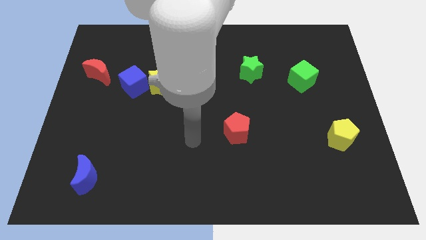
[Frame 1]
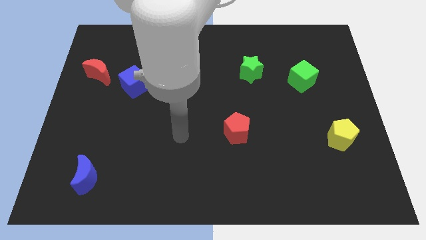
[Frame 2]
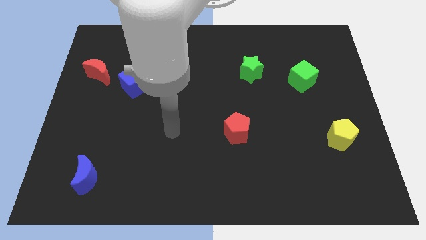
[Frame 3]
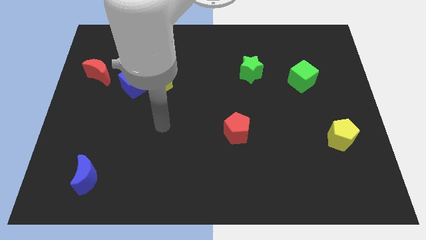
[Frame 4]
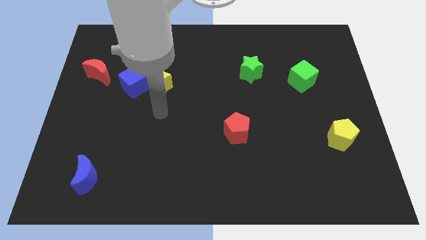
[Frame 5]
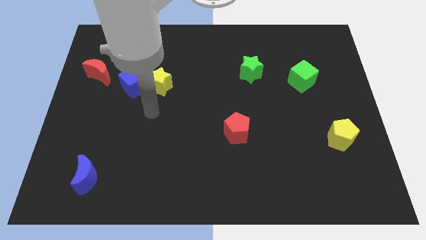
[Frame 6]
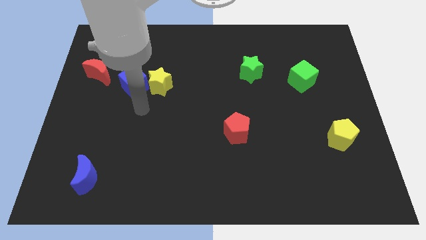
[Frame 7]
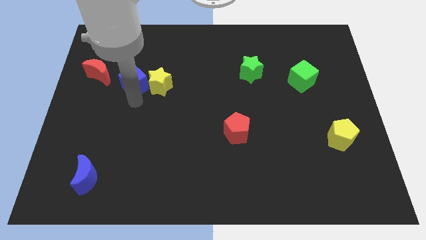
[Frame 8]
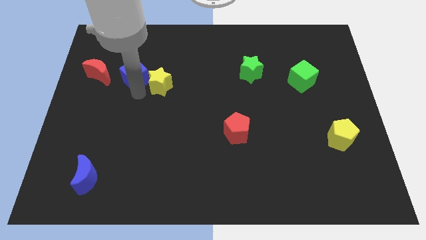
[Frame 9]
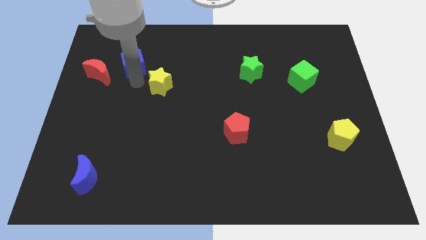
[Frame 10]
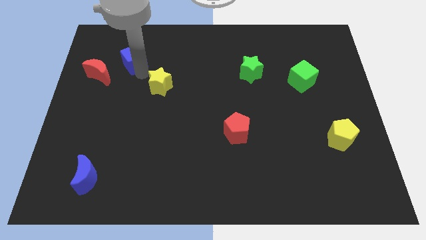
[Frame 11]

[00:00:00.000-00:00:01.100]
pull the yellow star apart from the blue cube

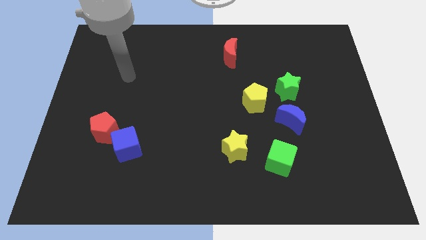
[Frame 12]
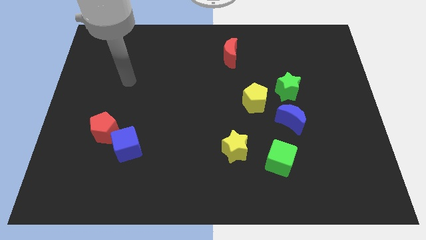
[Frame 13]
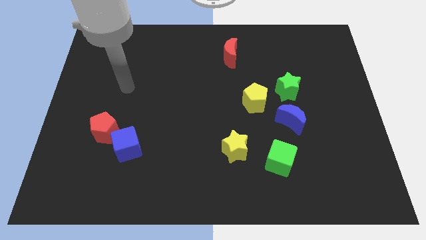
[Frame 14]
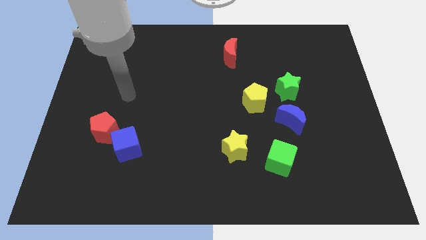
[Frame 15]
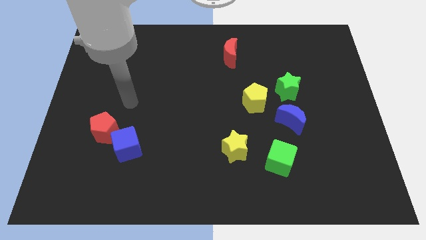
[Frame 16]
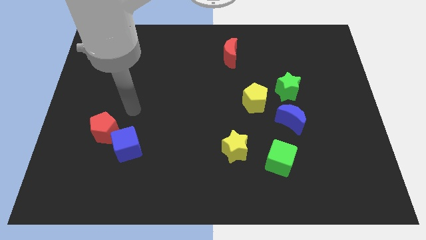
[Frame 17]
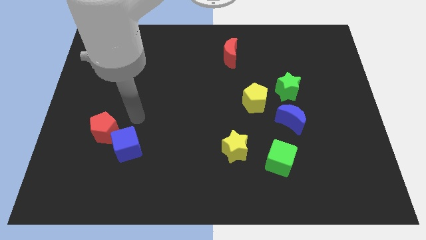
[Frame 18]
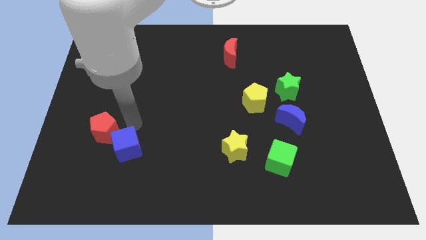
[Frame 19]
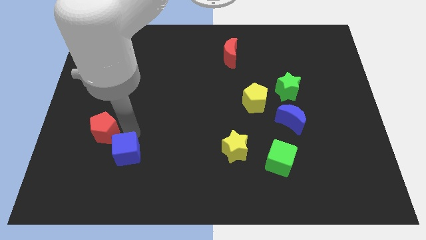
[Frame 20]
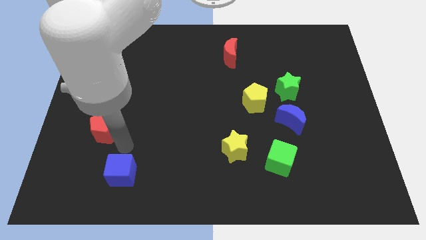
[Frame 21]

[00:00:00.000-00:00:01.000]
separate the red pentagon from the blue cube

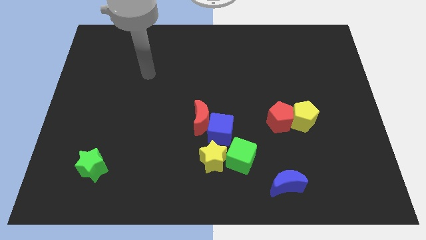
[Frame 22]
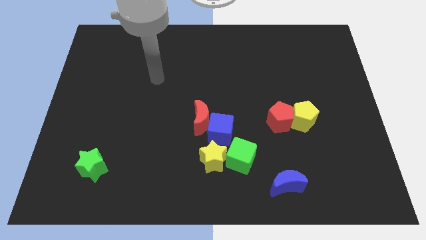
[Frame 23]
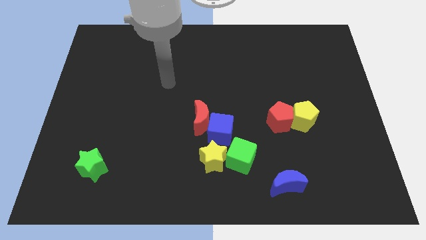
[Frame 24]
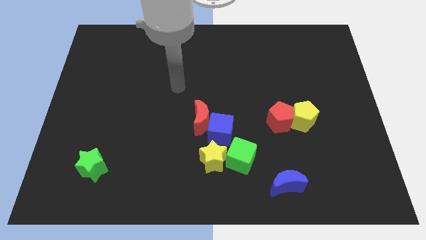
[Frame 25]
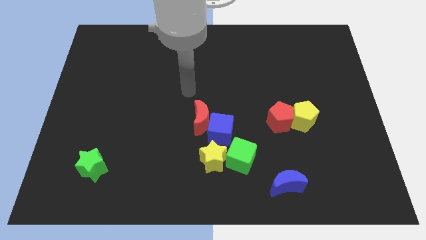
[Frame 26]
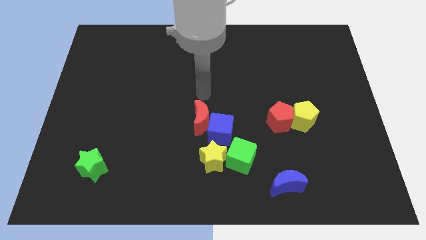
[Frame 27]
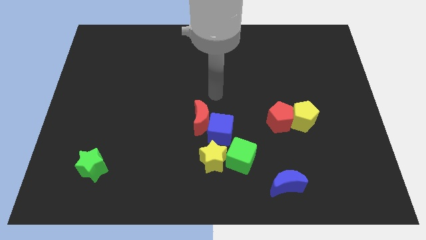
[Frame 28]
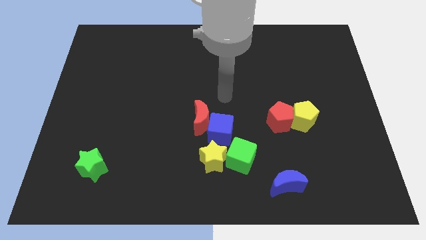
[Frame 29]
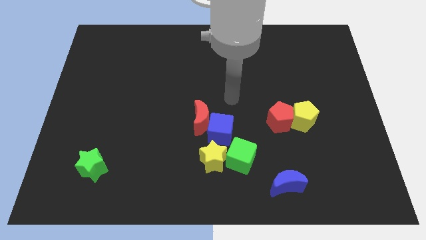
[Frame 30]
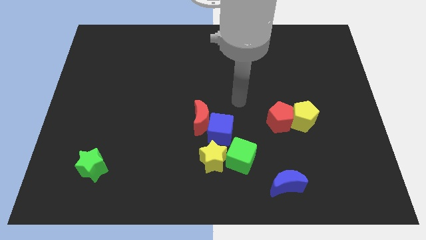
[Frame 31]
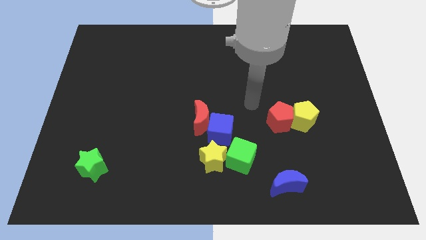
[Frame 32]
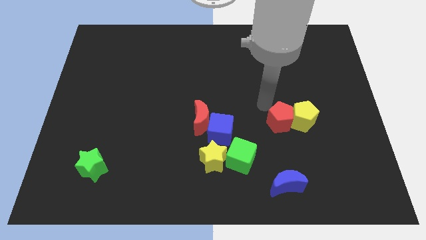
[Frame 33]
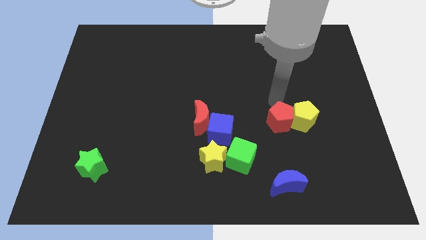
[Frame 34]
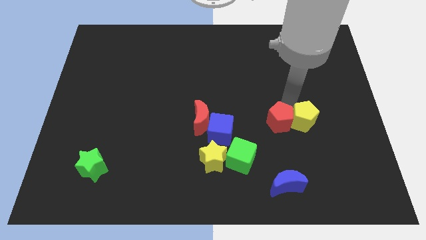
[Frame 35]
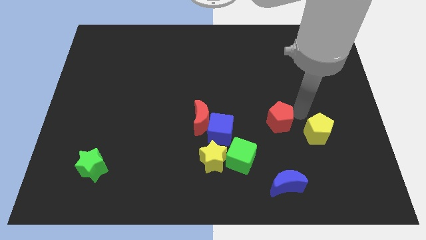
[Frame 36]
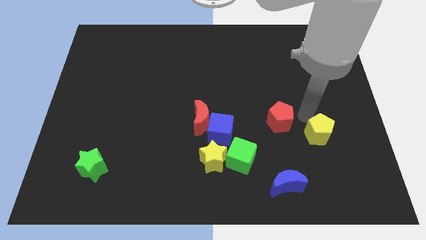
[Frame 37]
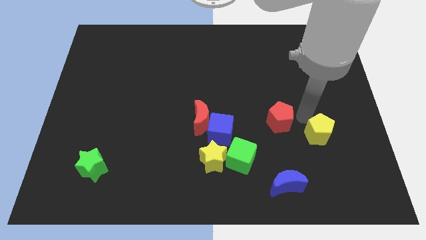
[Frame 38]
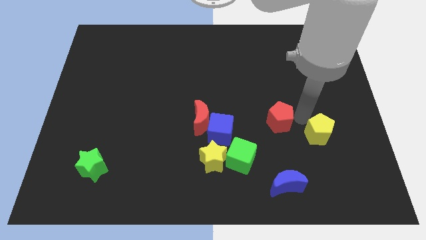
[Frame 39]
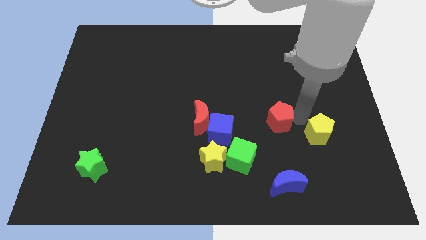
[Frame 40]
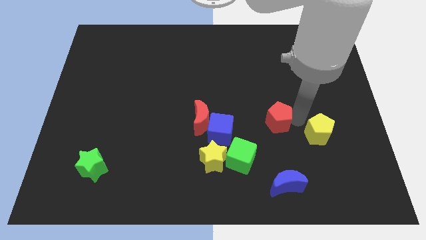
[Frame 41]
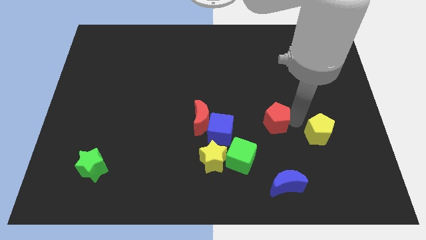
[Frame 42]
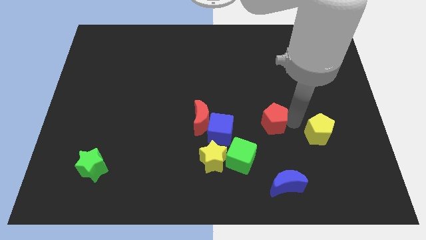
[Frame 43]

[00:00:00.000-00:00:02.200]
move the red pentagon away from the yellow pentagon

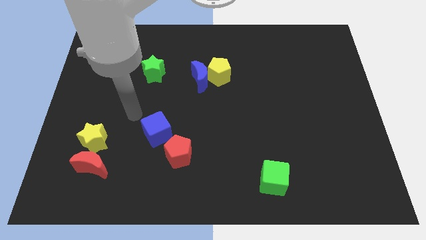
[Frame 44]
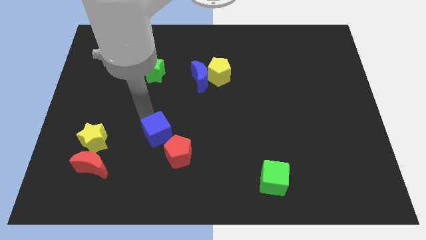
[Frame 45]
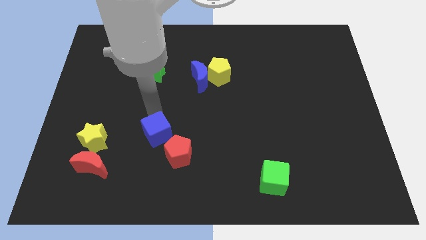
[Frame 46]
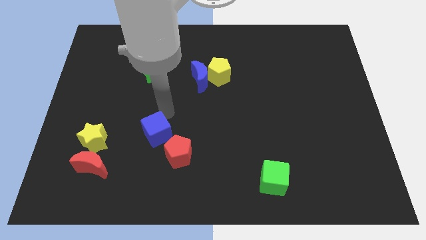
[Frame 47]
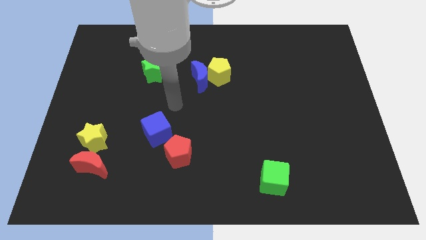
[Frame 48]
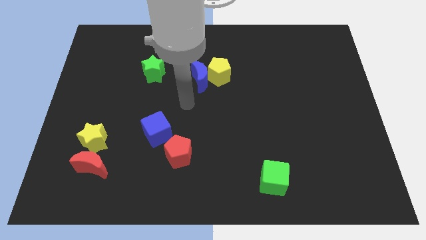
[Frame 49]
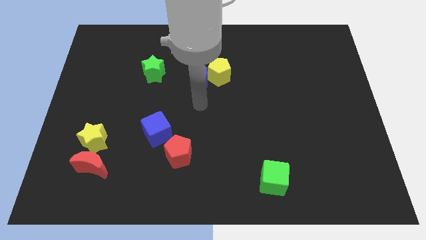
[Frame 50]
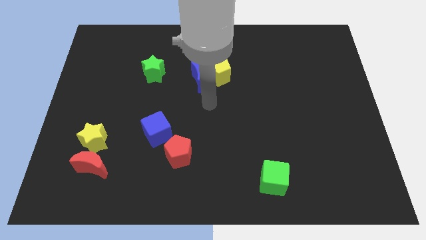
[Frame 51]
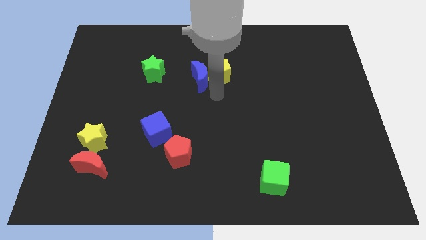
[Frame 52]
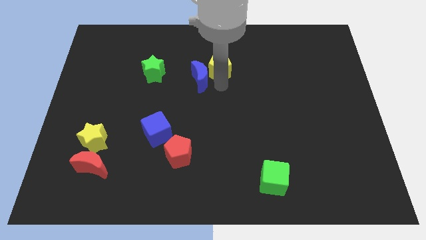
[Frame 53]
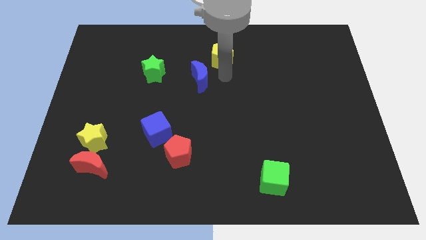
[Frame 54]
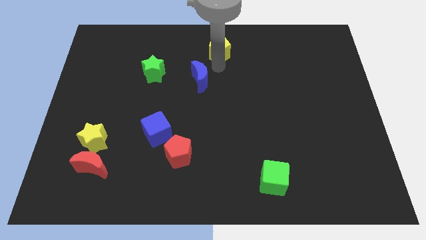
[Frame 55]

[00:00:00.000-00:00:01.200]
pull the blue moon apart from the yellow pentagon

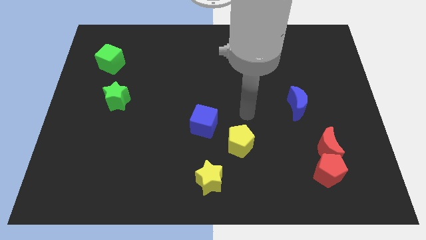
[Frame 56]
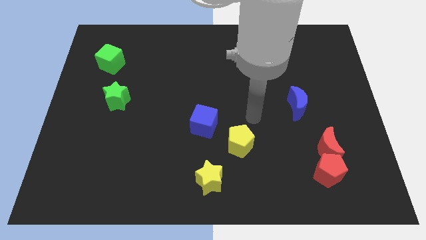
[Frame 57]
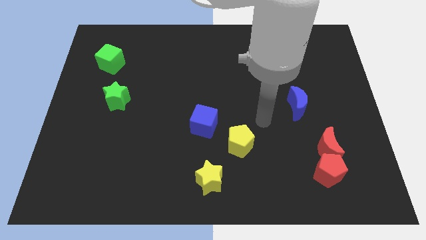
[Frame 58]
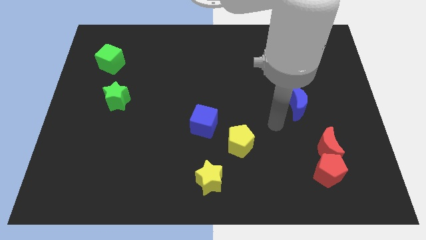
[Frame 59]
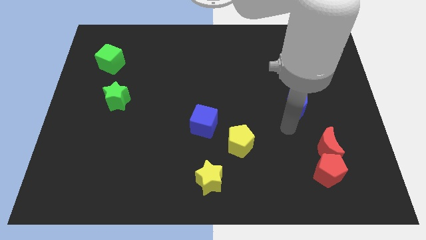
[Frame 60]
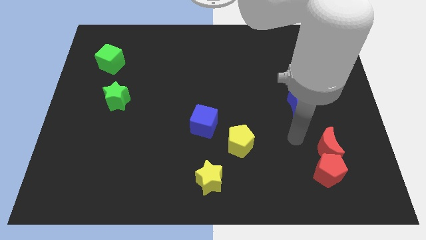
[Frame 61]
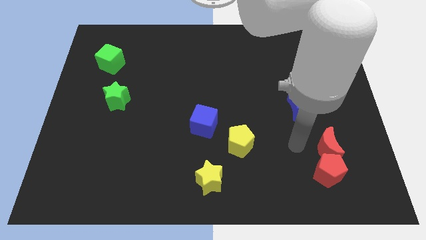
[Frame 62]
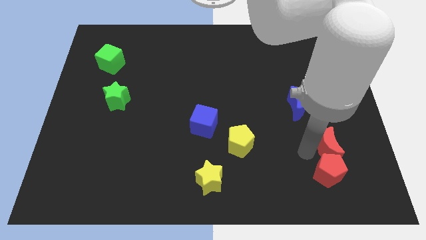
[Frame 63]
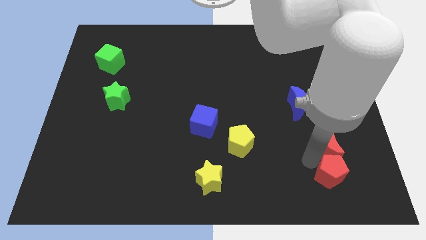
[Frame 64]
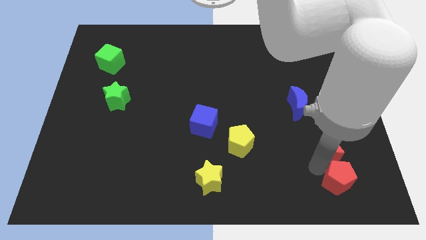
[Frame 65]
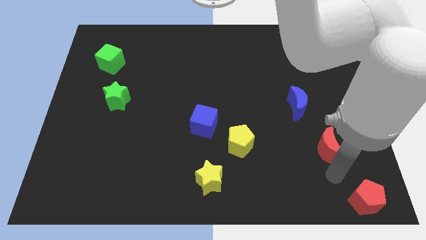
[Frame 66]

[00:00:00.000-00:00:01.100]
move the red moon away from the red pentagon

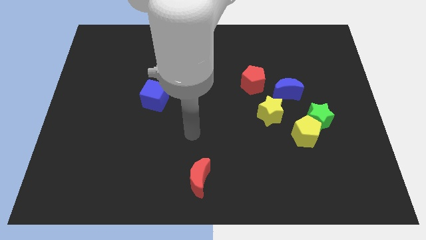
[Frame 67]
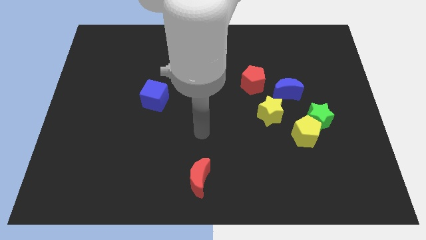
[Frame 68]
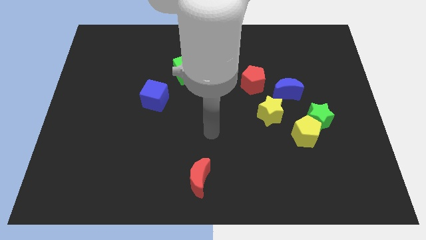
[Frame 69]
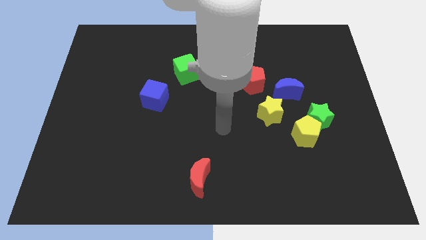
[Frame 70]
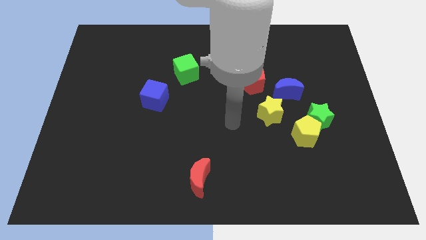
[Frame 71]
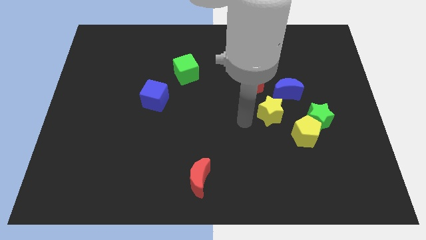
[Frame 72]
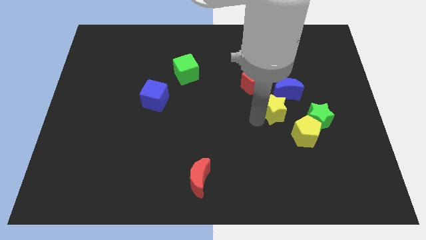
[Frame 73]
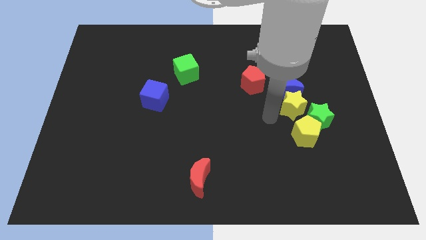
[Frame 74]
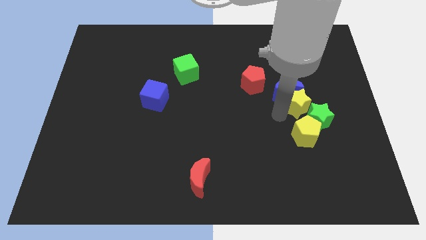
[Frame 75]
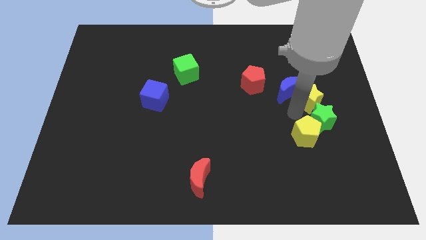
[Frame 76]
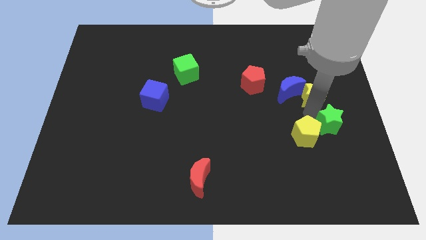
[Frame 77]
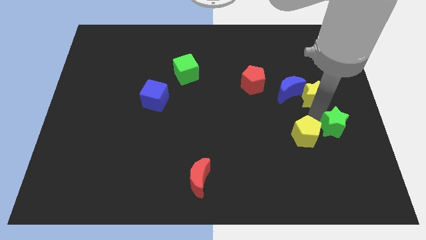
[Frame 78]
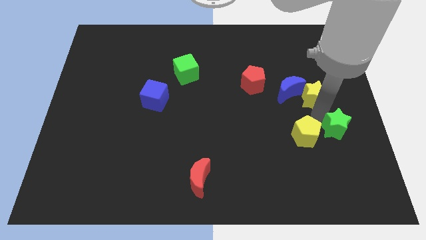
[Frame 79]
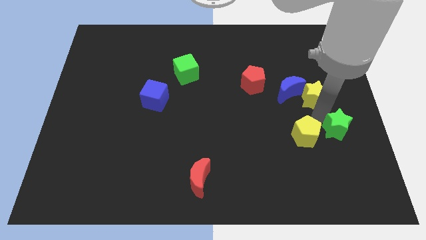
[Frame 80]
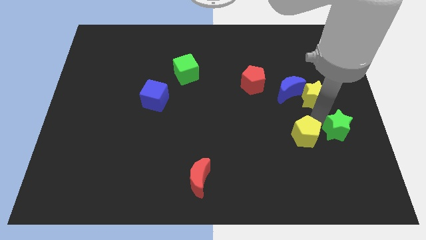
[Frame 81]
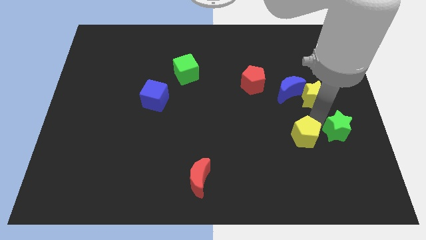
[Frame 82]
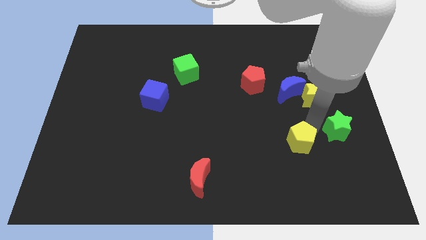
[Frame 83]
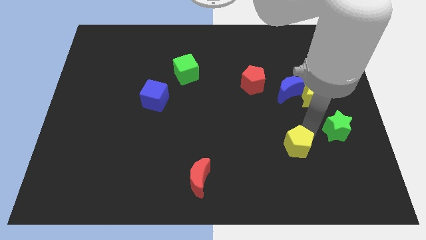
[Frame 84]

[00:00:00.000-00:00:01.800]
separate the yellow pentagon from the green star and yellow star

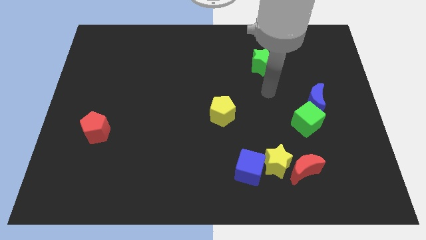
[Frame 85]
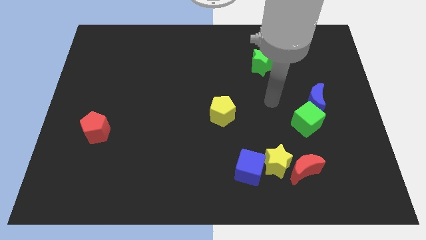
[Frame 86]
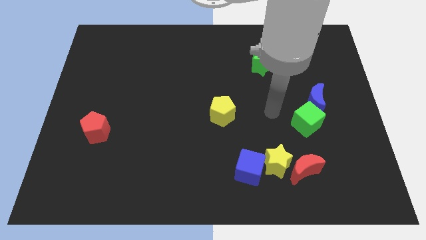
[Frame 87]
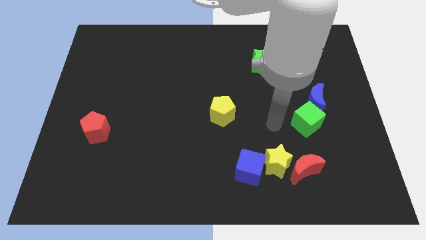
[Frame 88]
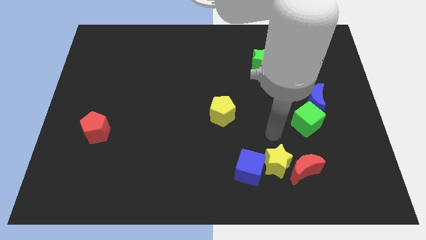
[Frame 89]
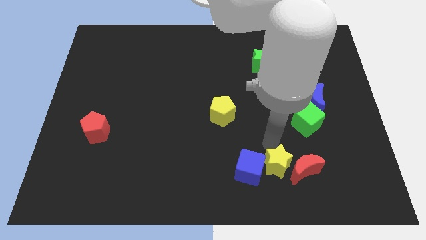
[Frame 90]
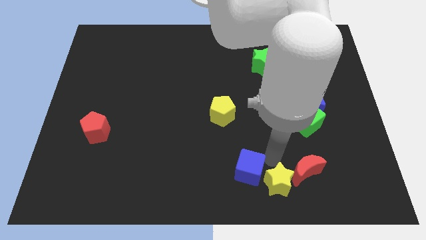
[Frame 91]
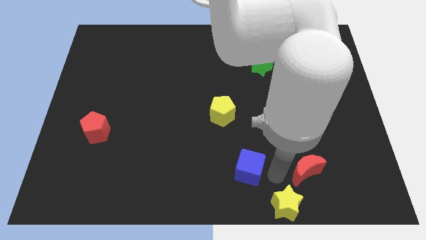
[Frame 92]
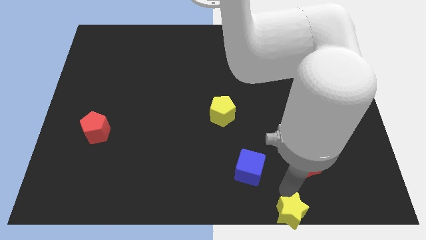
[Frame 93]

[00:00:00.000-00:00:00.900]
pull the red moon apart from the yellow star
